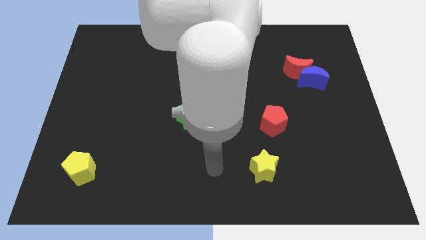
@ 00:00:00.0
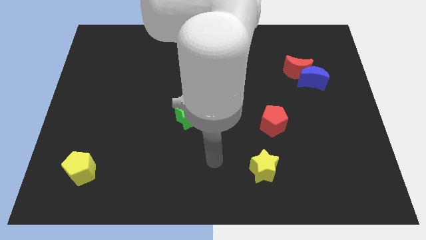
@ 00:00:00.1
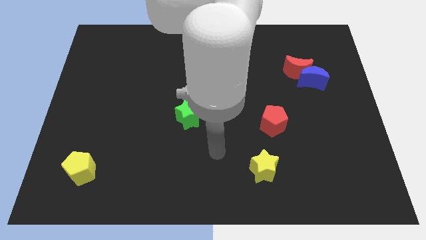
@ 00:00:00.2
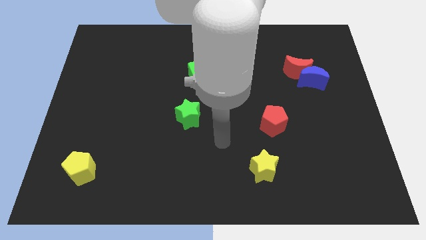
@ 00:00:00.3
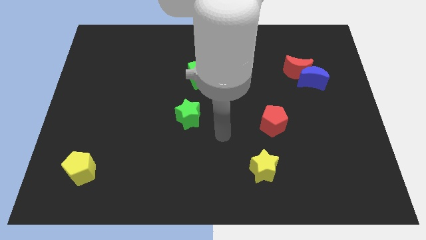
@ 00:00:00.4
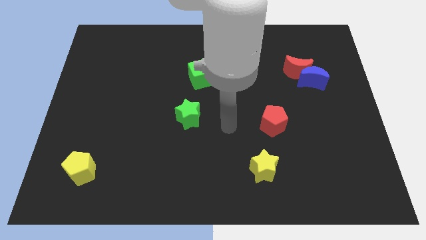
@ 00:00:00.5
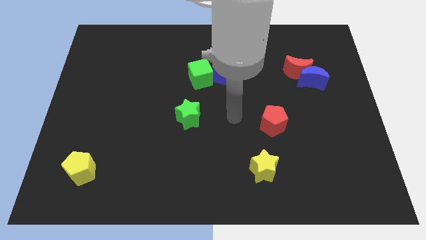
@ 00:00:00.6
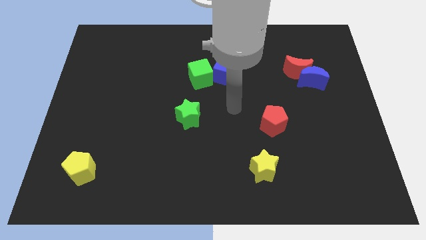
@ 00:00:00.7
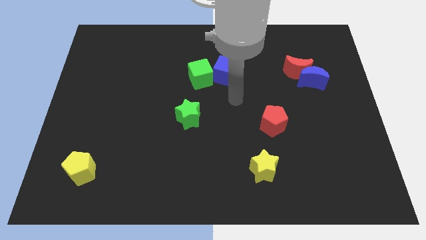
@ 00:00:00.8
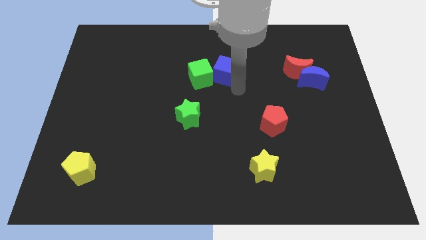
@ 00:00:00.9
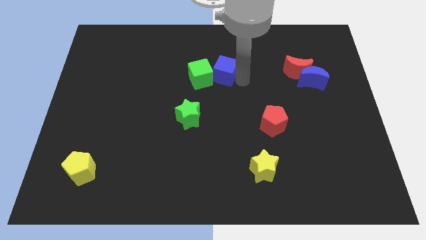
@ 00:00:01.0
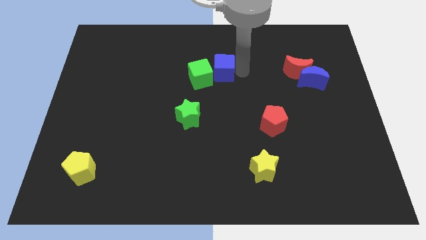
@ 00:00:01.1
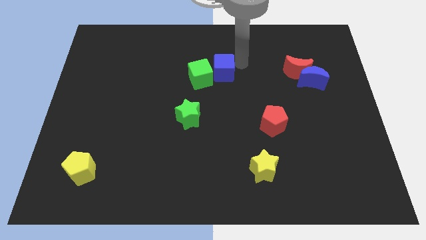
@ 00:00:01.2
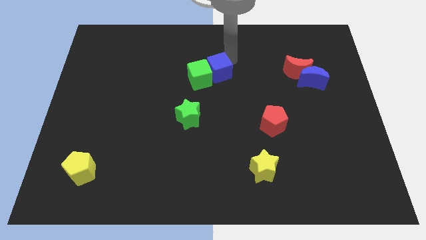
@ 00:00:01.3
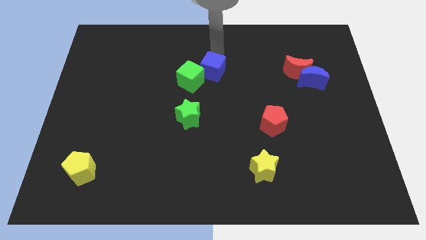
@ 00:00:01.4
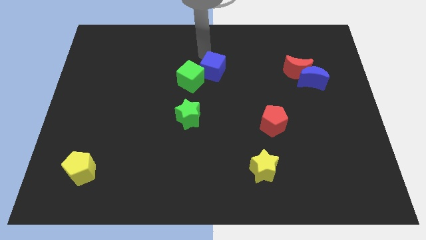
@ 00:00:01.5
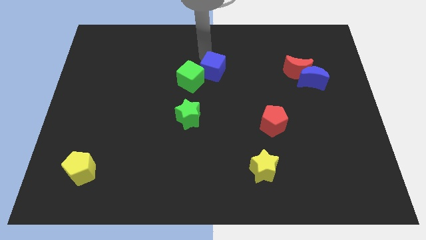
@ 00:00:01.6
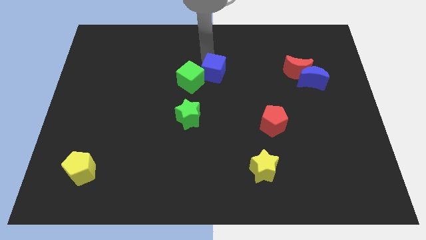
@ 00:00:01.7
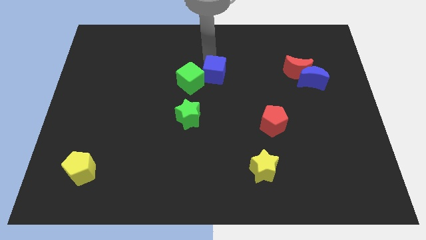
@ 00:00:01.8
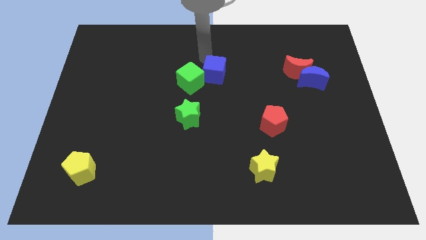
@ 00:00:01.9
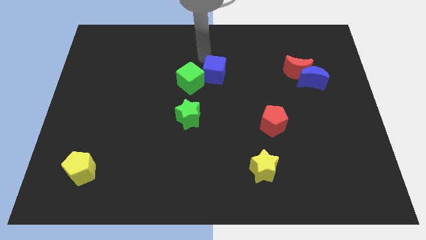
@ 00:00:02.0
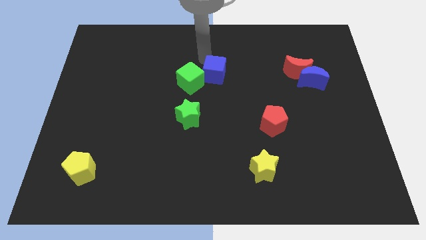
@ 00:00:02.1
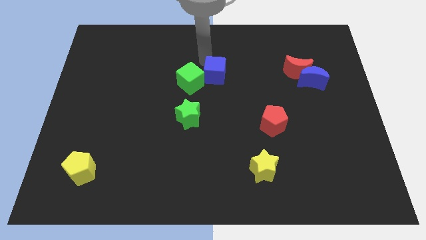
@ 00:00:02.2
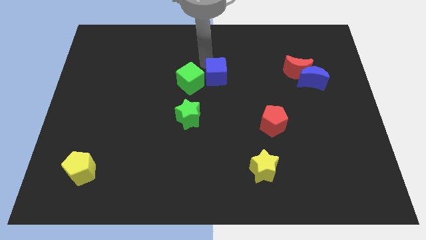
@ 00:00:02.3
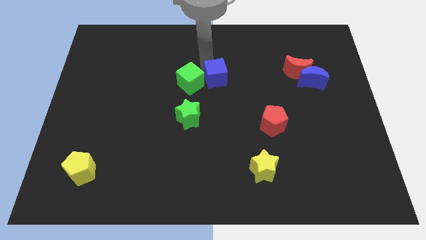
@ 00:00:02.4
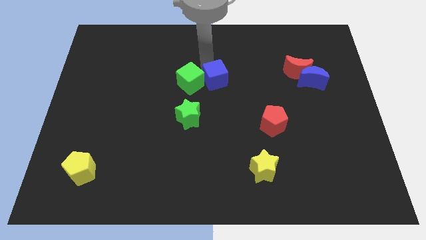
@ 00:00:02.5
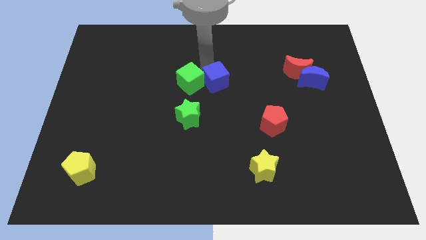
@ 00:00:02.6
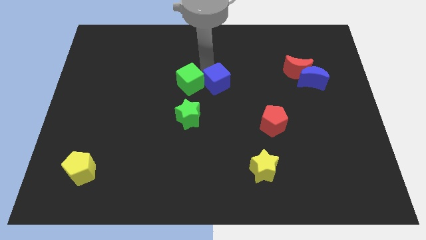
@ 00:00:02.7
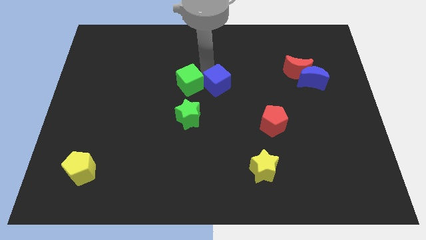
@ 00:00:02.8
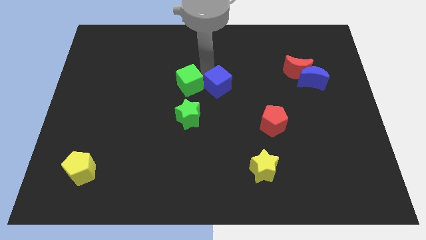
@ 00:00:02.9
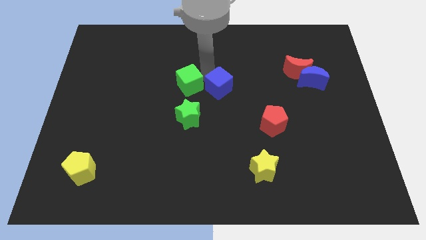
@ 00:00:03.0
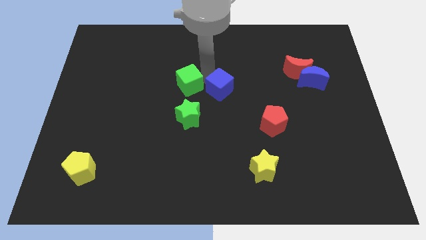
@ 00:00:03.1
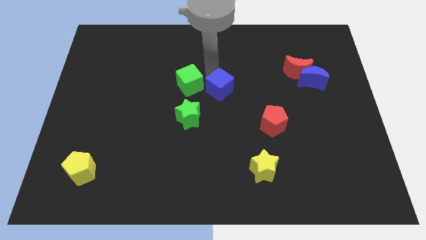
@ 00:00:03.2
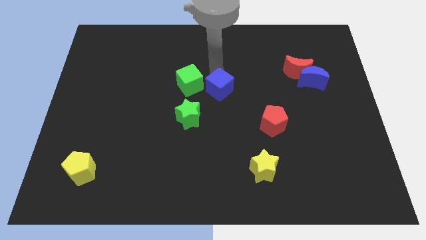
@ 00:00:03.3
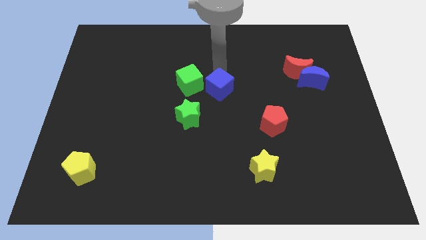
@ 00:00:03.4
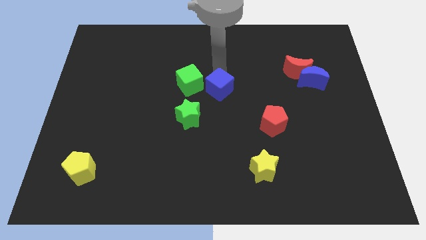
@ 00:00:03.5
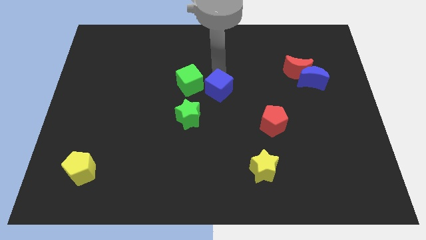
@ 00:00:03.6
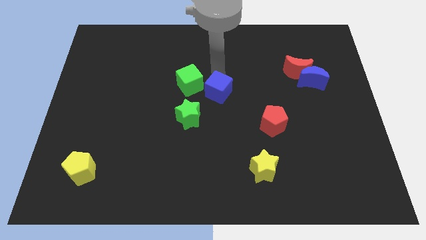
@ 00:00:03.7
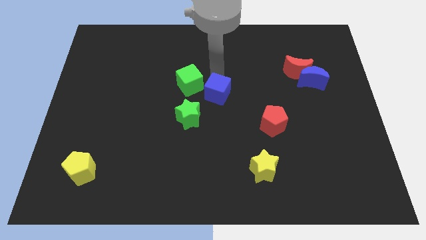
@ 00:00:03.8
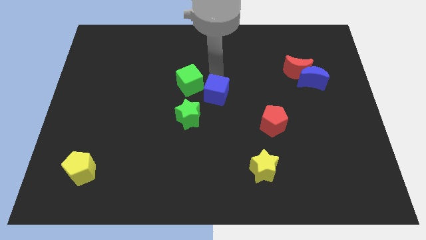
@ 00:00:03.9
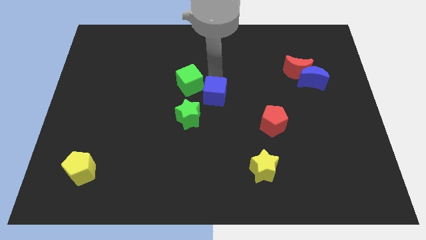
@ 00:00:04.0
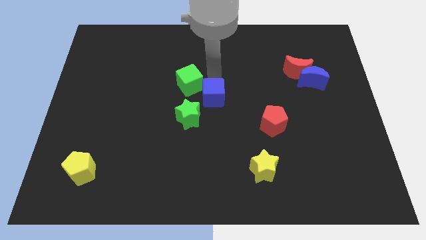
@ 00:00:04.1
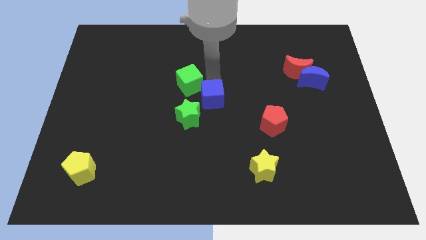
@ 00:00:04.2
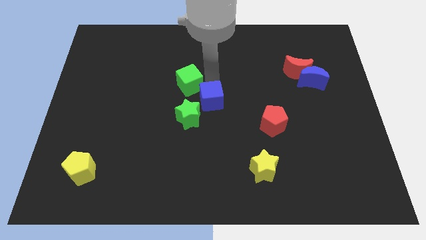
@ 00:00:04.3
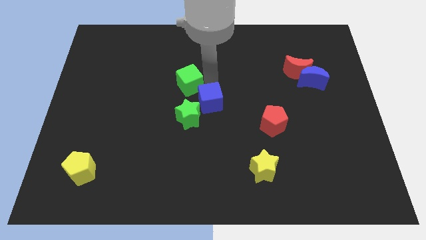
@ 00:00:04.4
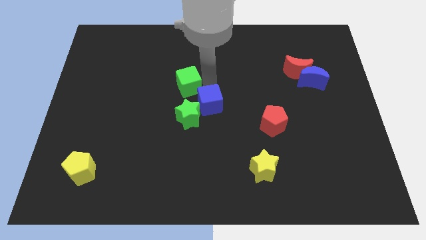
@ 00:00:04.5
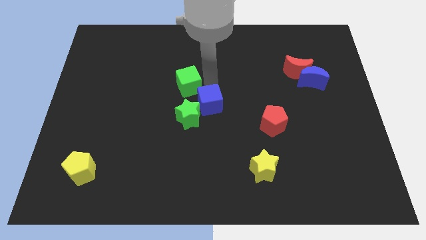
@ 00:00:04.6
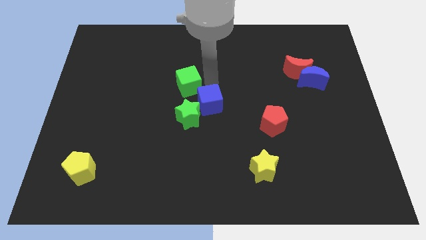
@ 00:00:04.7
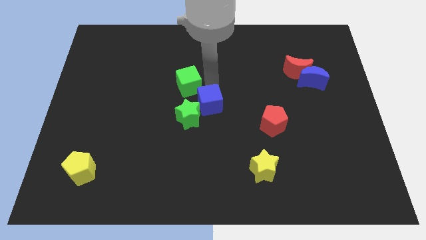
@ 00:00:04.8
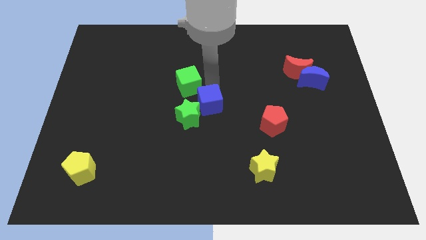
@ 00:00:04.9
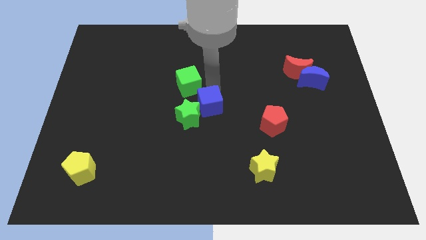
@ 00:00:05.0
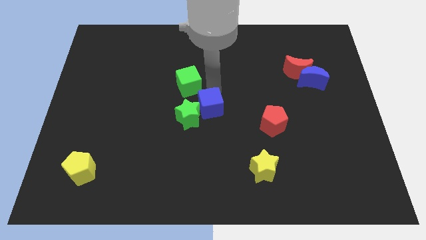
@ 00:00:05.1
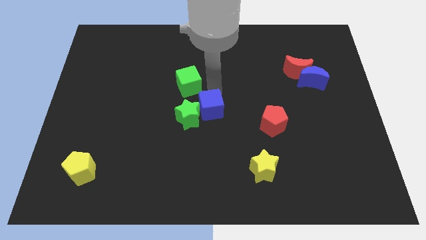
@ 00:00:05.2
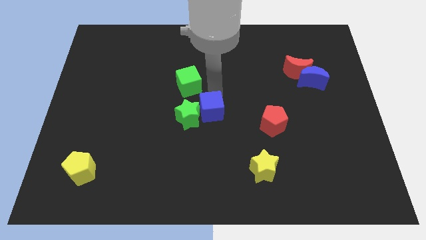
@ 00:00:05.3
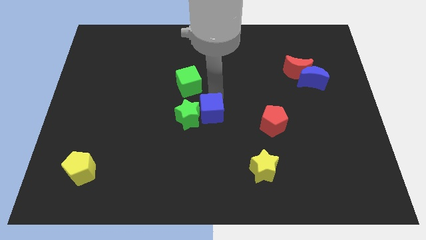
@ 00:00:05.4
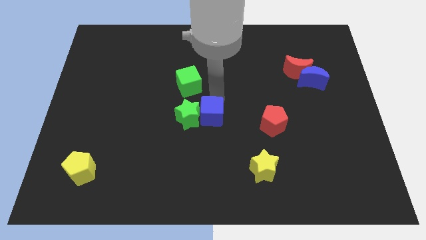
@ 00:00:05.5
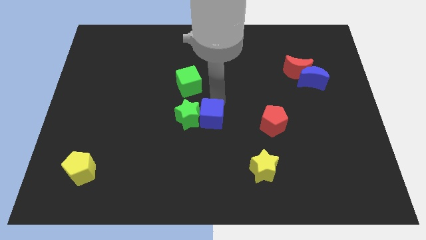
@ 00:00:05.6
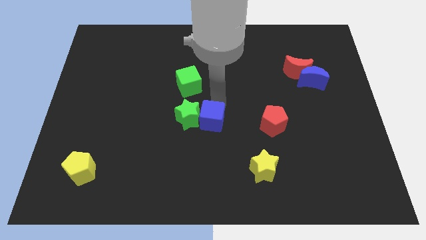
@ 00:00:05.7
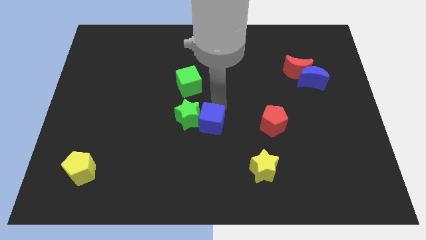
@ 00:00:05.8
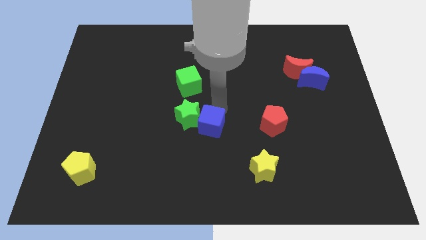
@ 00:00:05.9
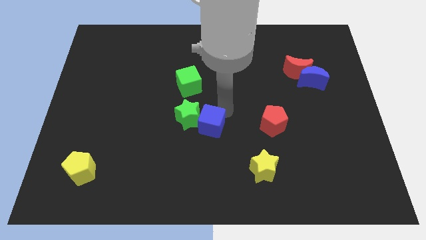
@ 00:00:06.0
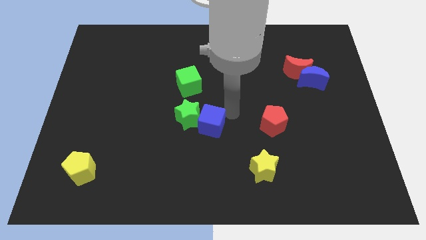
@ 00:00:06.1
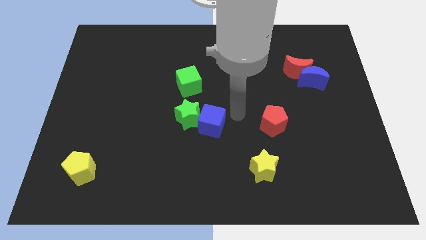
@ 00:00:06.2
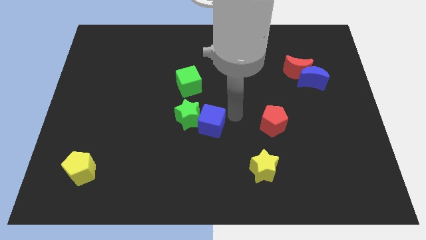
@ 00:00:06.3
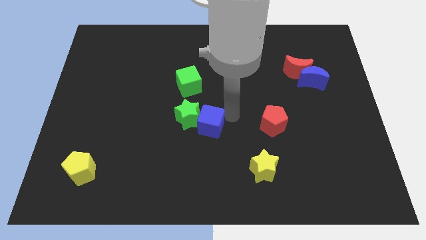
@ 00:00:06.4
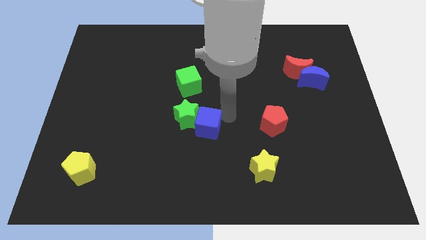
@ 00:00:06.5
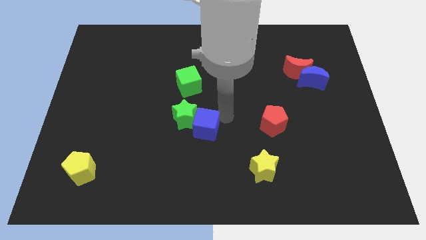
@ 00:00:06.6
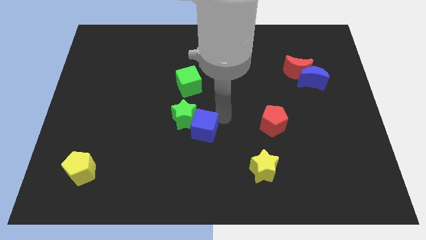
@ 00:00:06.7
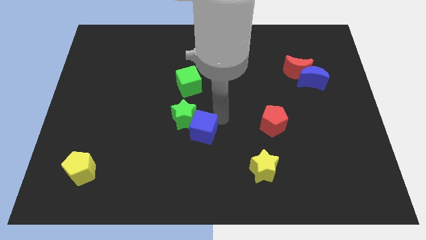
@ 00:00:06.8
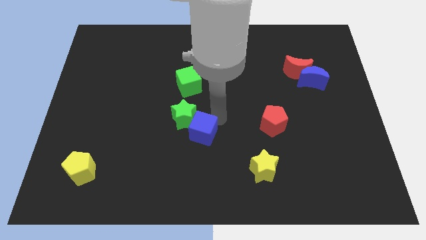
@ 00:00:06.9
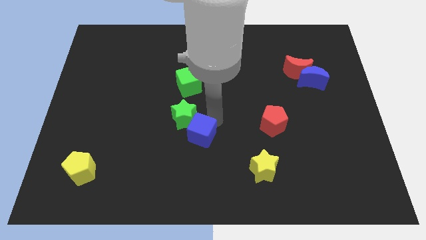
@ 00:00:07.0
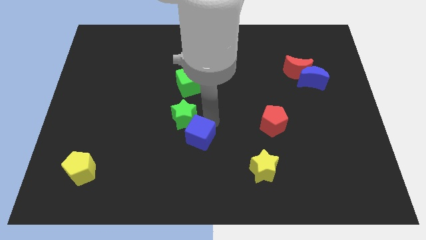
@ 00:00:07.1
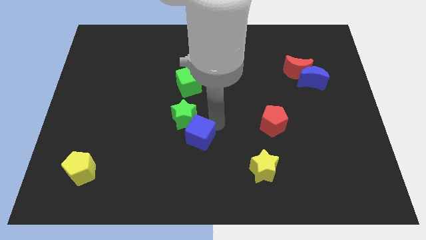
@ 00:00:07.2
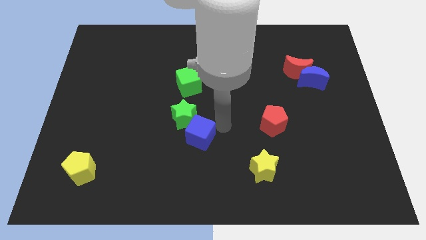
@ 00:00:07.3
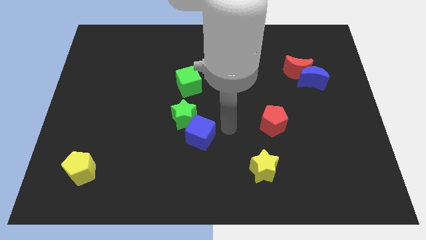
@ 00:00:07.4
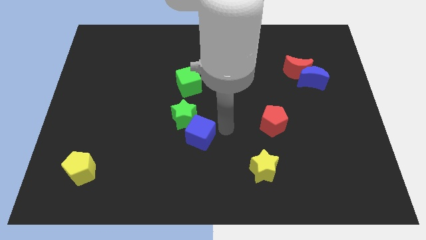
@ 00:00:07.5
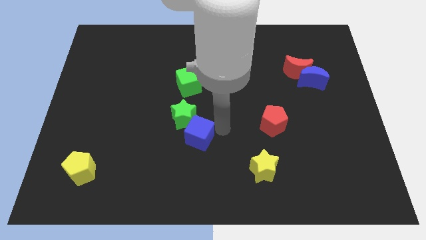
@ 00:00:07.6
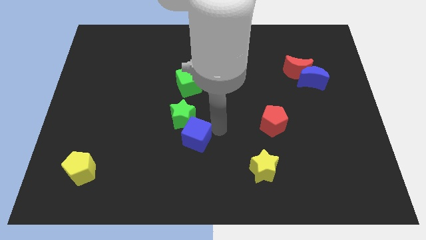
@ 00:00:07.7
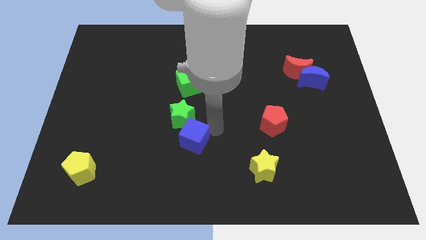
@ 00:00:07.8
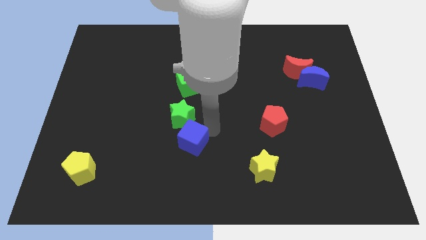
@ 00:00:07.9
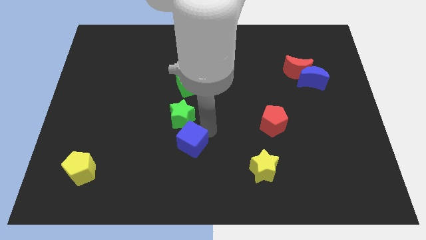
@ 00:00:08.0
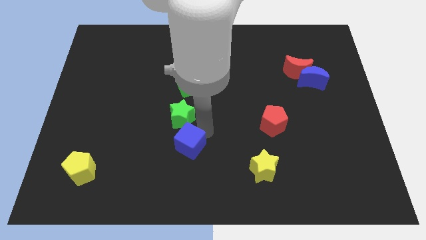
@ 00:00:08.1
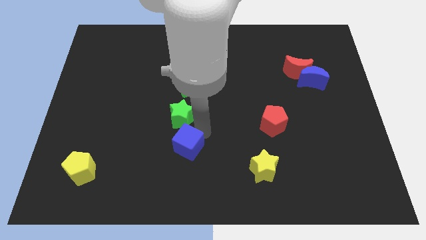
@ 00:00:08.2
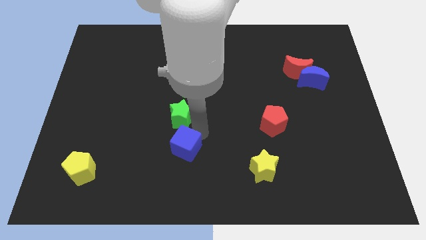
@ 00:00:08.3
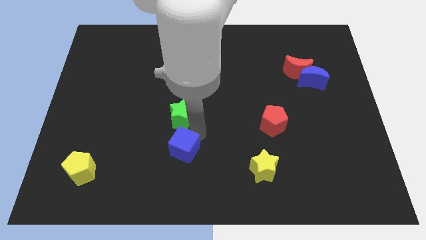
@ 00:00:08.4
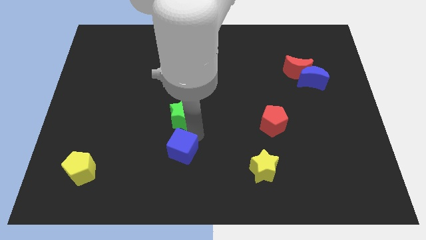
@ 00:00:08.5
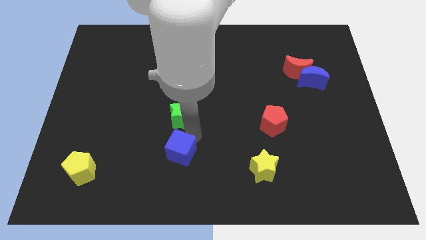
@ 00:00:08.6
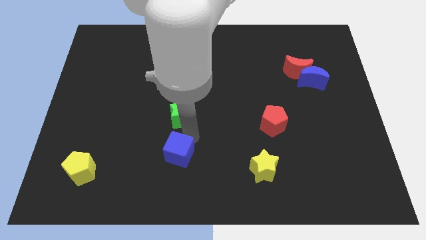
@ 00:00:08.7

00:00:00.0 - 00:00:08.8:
push the blue cube downwards and then to the left
